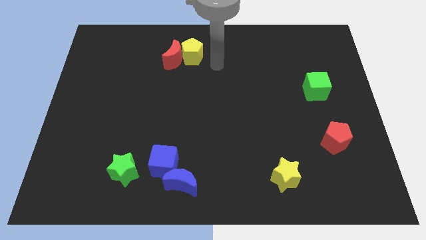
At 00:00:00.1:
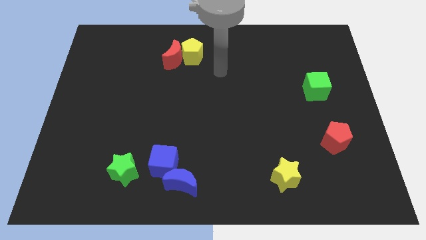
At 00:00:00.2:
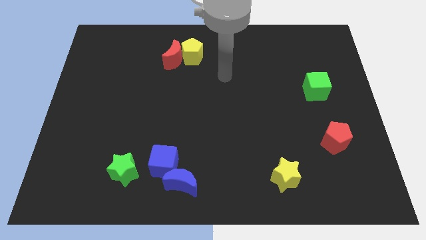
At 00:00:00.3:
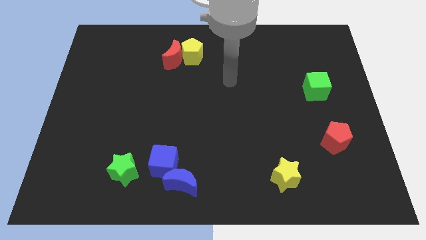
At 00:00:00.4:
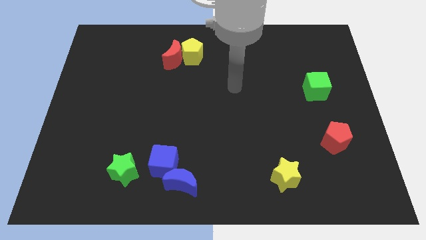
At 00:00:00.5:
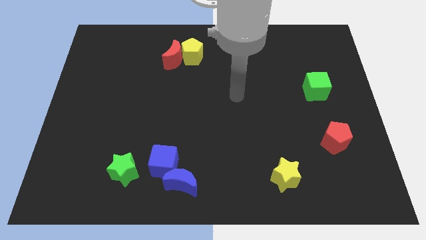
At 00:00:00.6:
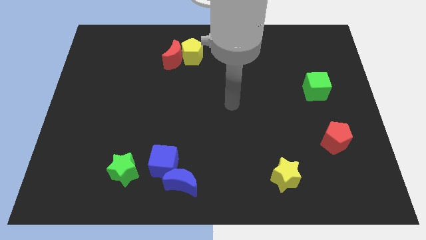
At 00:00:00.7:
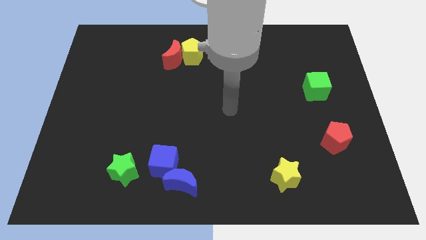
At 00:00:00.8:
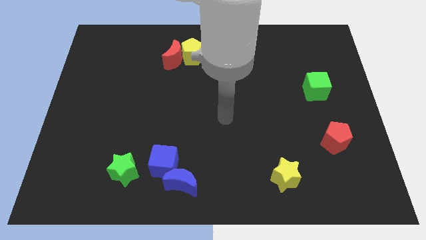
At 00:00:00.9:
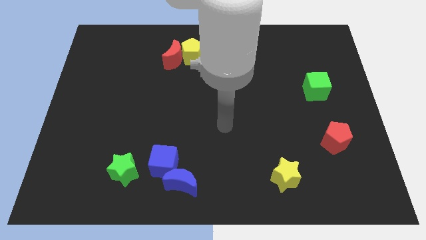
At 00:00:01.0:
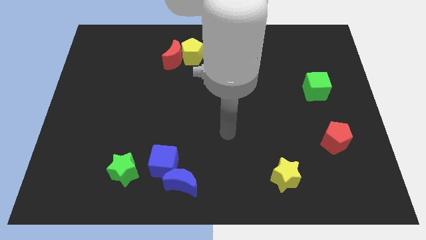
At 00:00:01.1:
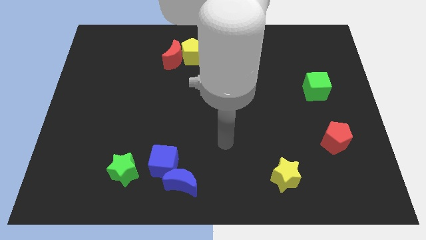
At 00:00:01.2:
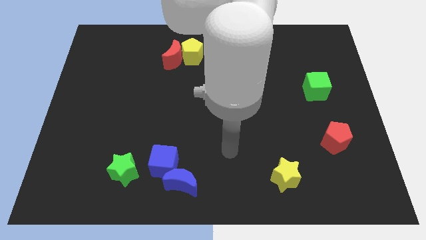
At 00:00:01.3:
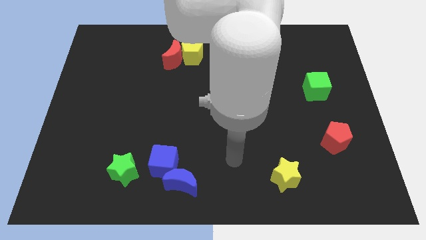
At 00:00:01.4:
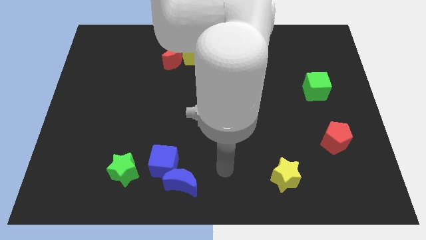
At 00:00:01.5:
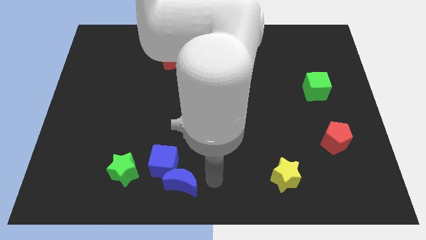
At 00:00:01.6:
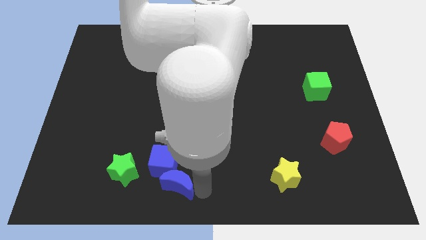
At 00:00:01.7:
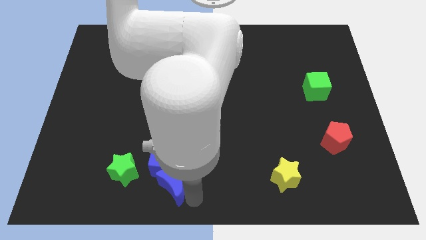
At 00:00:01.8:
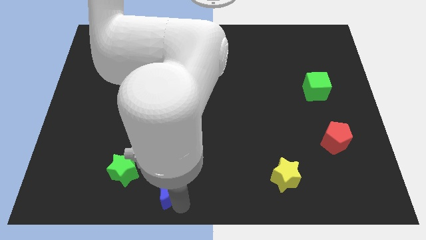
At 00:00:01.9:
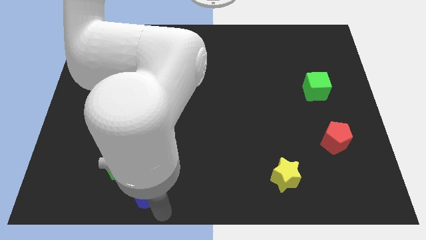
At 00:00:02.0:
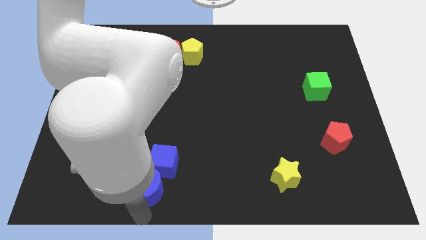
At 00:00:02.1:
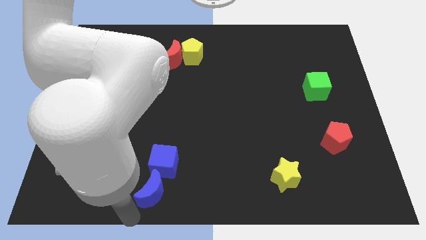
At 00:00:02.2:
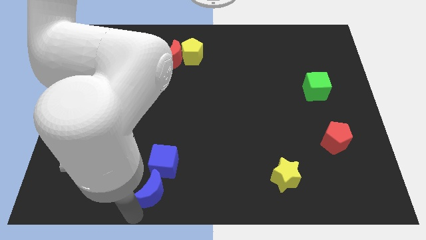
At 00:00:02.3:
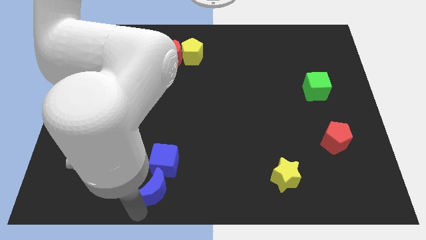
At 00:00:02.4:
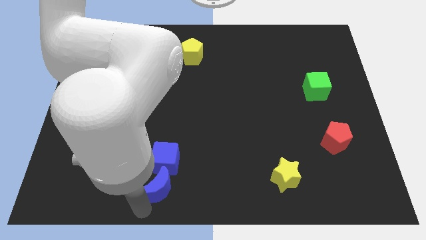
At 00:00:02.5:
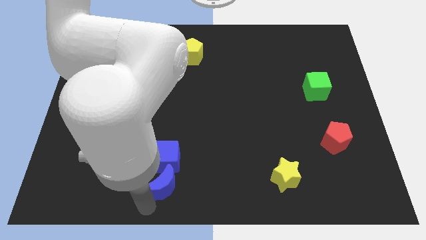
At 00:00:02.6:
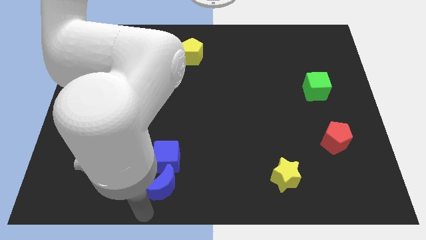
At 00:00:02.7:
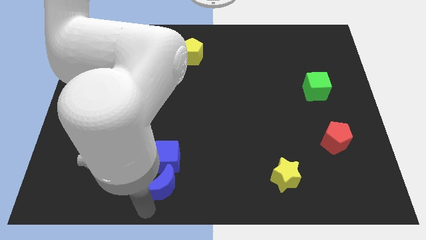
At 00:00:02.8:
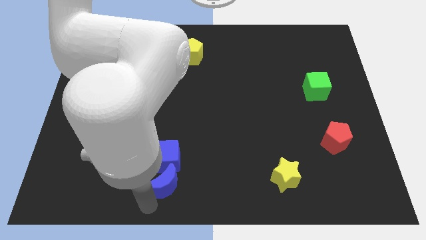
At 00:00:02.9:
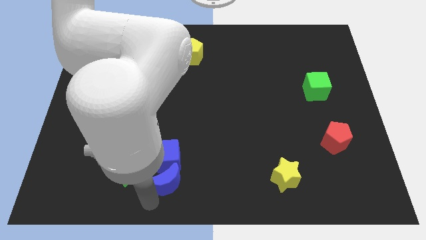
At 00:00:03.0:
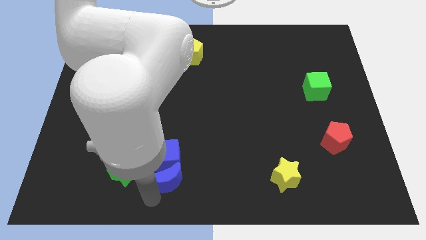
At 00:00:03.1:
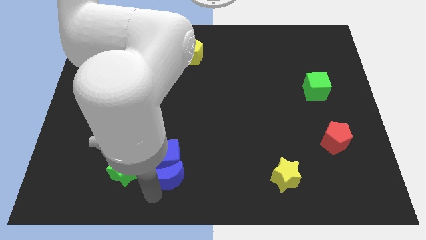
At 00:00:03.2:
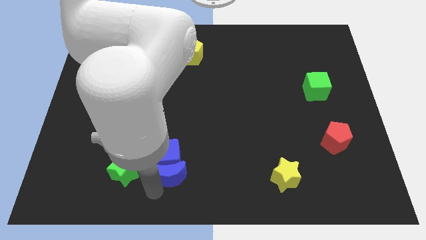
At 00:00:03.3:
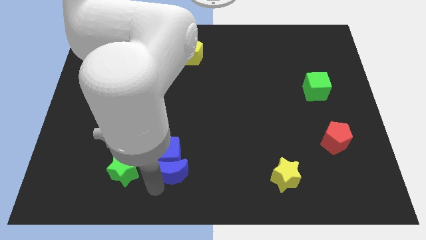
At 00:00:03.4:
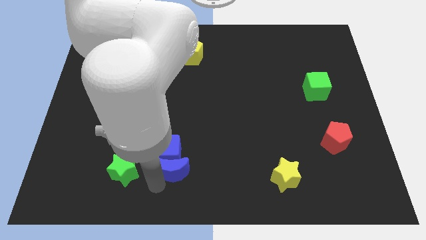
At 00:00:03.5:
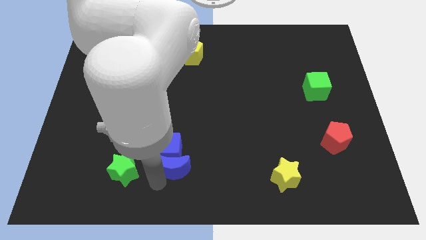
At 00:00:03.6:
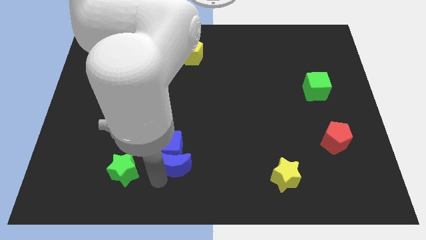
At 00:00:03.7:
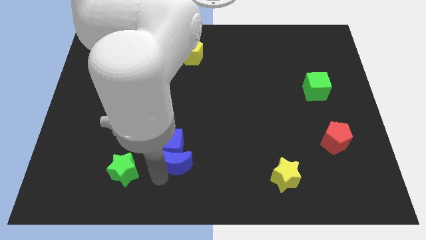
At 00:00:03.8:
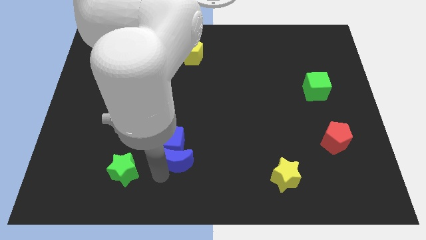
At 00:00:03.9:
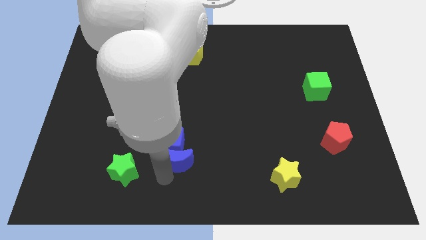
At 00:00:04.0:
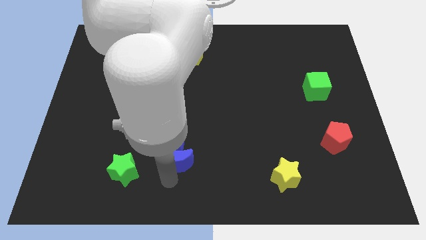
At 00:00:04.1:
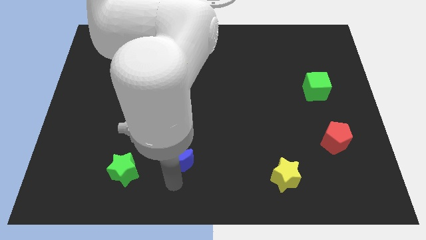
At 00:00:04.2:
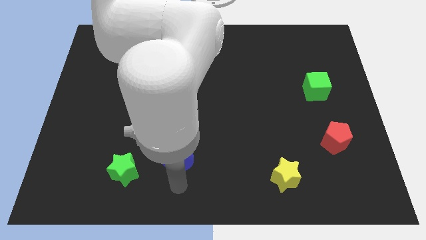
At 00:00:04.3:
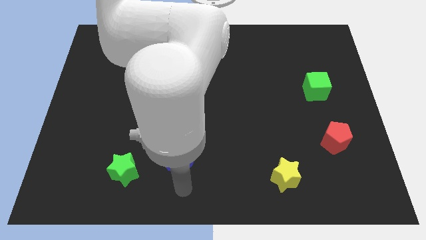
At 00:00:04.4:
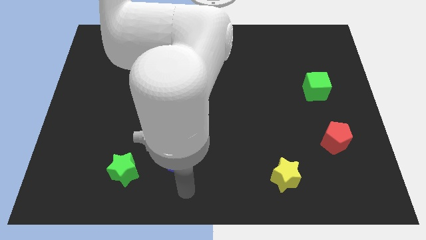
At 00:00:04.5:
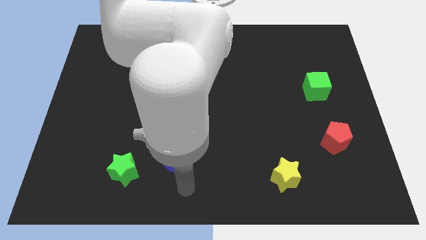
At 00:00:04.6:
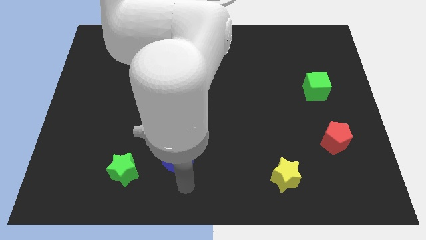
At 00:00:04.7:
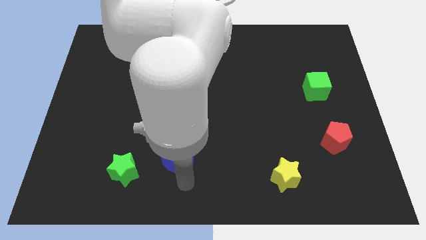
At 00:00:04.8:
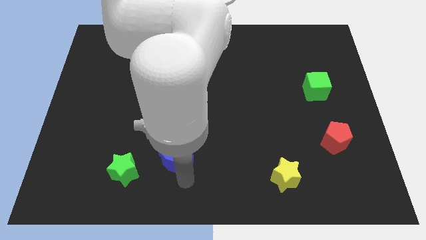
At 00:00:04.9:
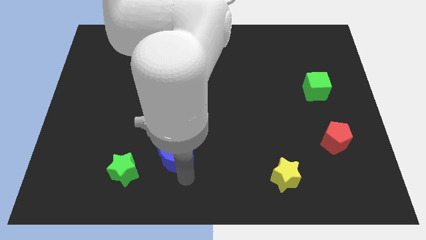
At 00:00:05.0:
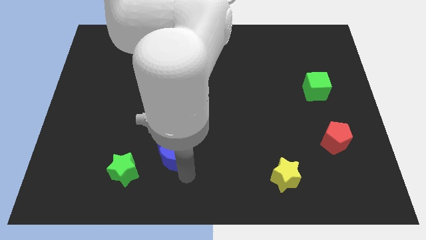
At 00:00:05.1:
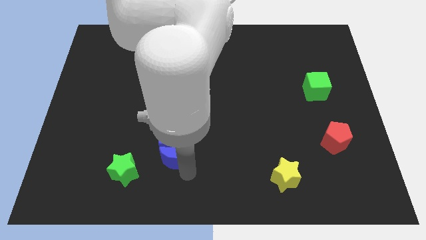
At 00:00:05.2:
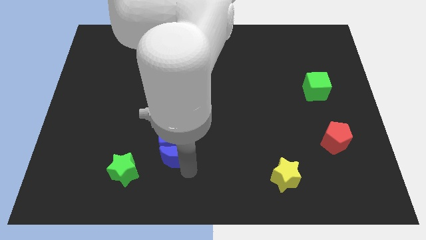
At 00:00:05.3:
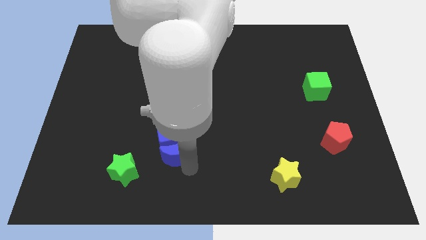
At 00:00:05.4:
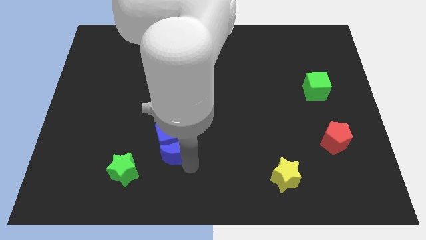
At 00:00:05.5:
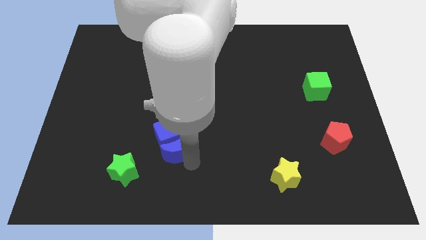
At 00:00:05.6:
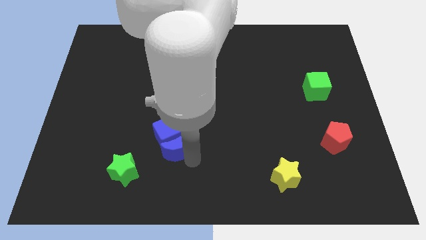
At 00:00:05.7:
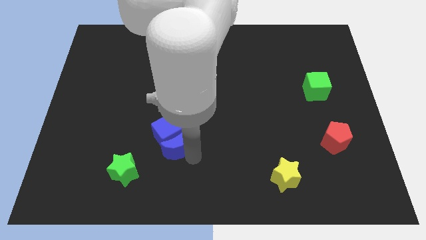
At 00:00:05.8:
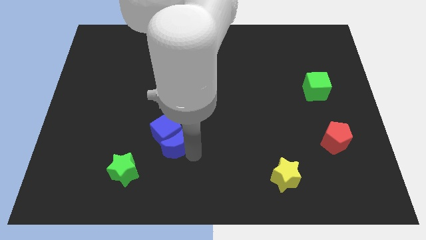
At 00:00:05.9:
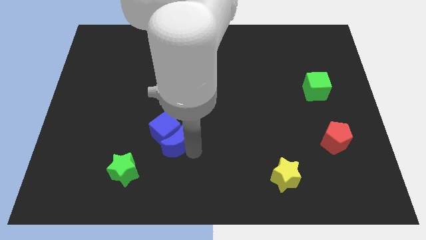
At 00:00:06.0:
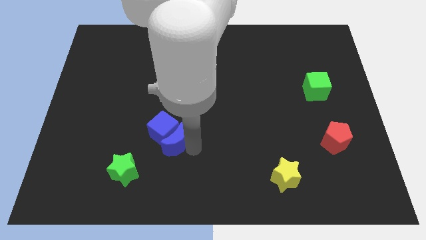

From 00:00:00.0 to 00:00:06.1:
slide the blue moon to the top right of the green star

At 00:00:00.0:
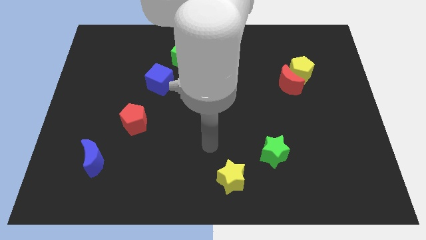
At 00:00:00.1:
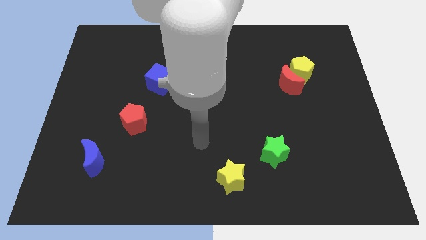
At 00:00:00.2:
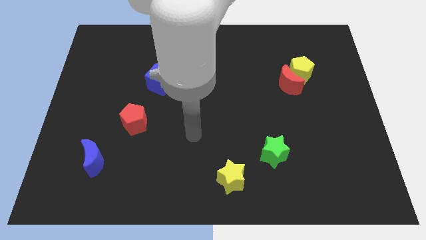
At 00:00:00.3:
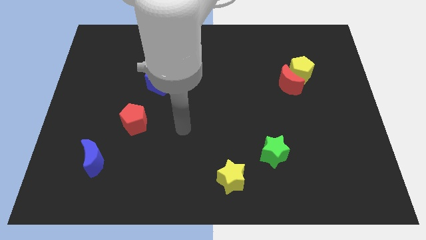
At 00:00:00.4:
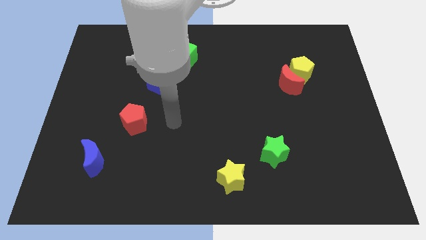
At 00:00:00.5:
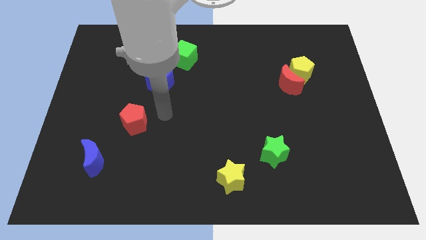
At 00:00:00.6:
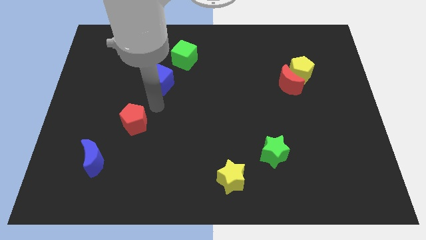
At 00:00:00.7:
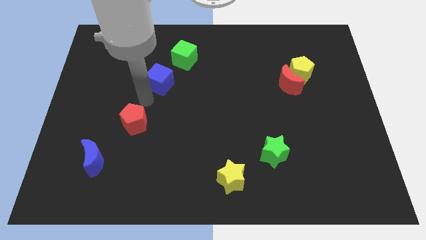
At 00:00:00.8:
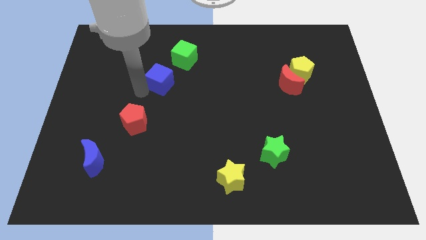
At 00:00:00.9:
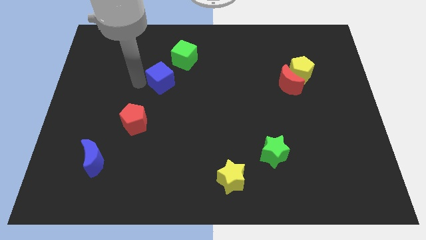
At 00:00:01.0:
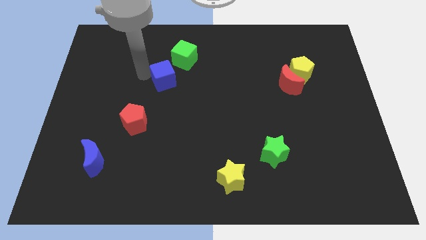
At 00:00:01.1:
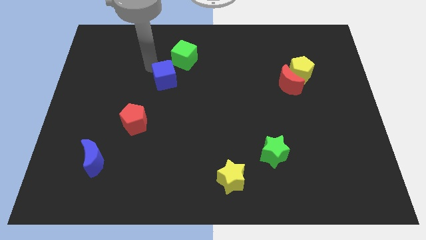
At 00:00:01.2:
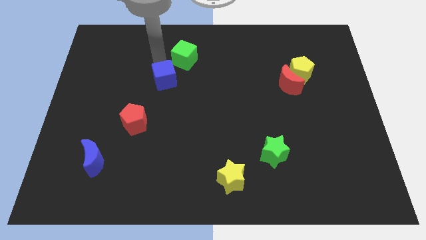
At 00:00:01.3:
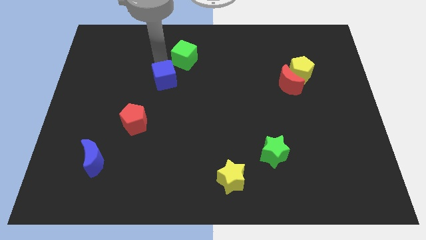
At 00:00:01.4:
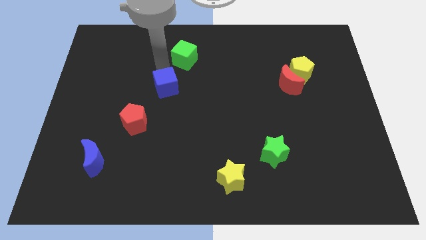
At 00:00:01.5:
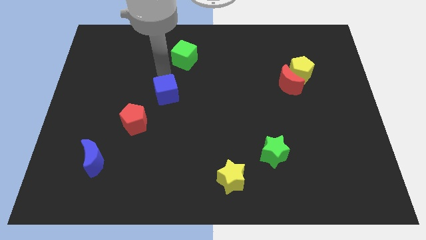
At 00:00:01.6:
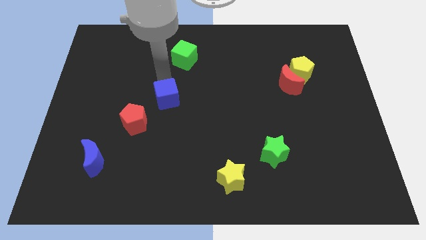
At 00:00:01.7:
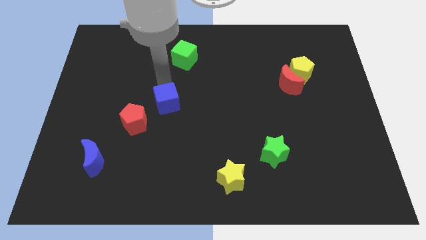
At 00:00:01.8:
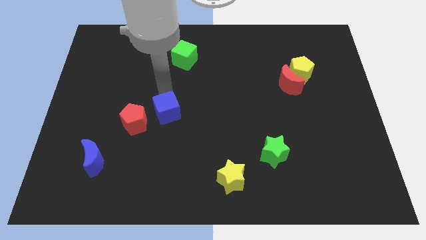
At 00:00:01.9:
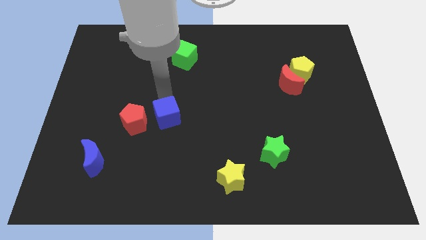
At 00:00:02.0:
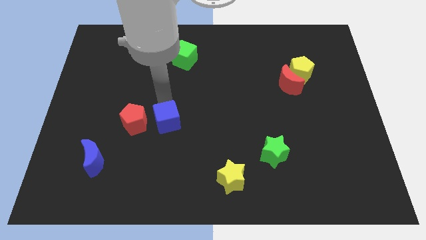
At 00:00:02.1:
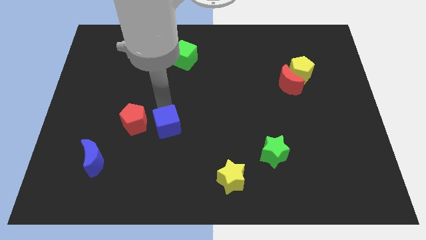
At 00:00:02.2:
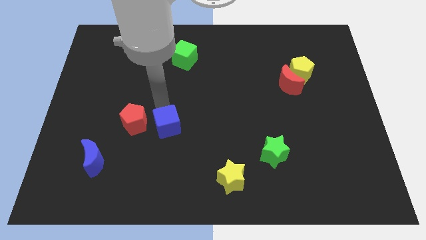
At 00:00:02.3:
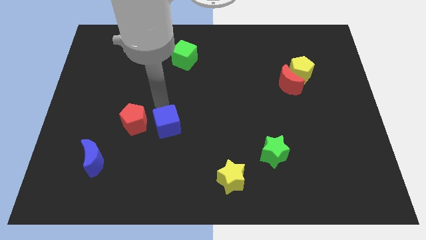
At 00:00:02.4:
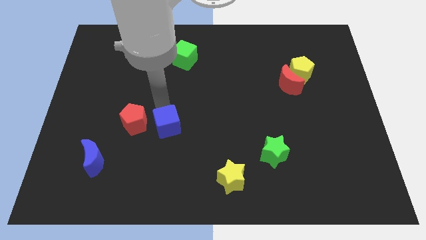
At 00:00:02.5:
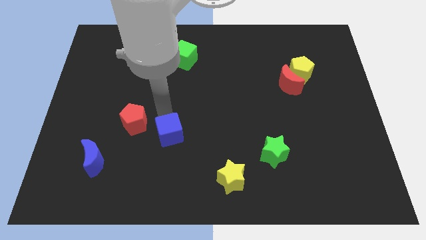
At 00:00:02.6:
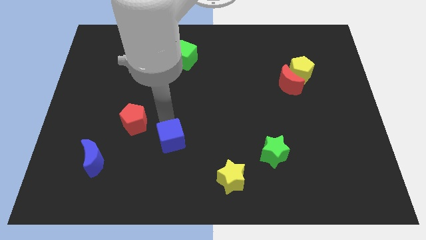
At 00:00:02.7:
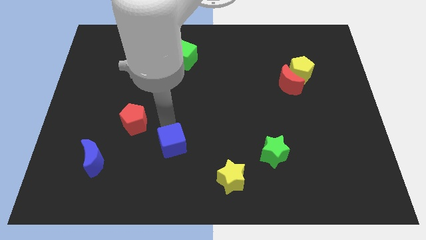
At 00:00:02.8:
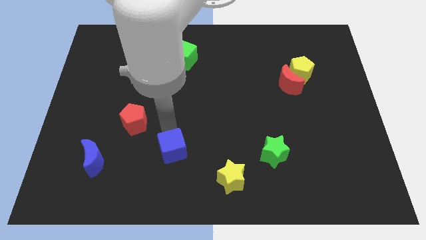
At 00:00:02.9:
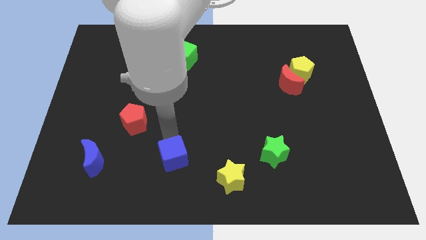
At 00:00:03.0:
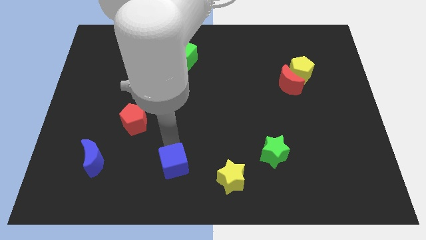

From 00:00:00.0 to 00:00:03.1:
move the blue cube left of the yellow star
